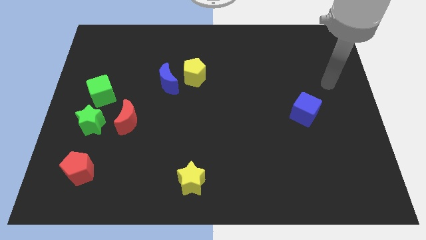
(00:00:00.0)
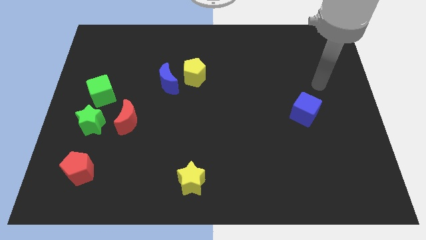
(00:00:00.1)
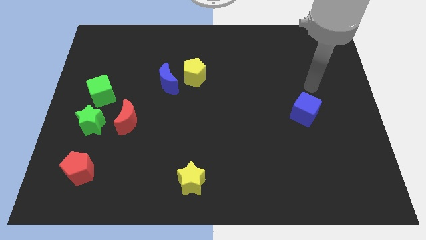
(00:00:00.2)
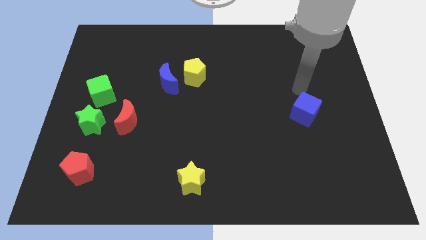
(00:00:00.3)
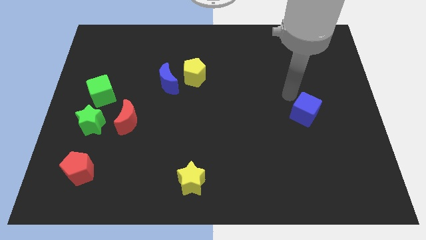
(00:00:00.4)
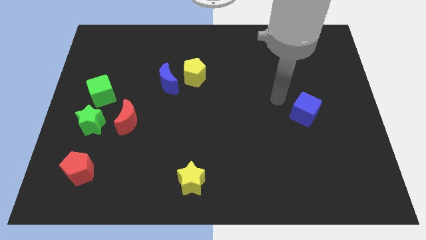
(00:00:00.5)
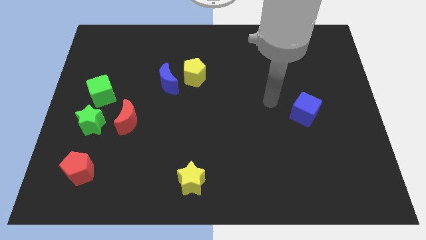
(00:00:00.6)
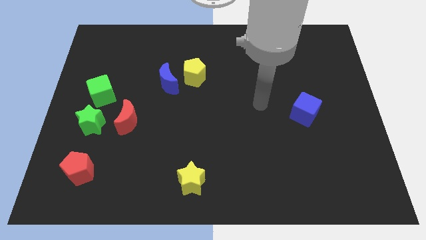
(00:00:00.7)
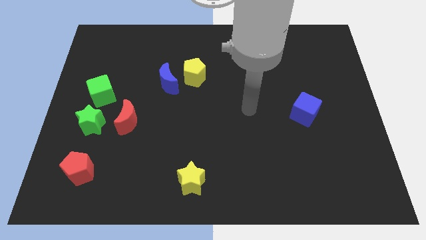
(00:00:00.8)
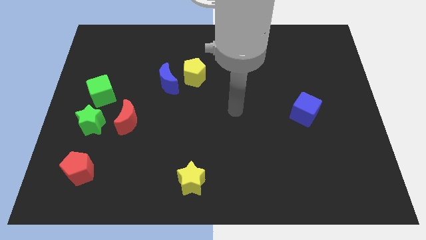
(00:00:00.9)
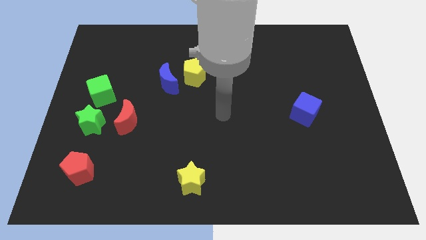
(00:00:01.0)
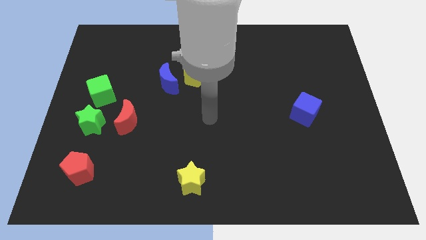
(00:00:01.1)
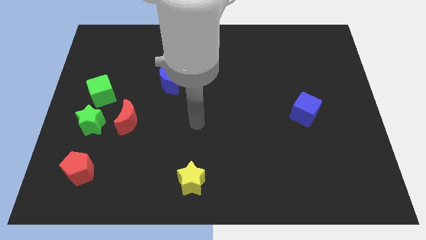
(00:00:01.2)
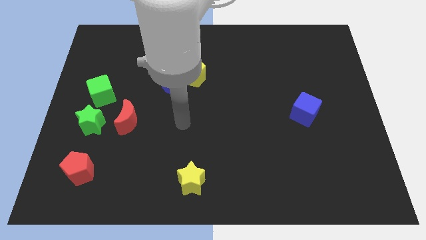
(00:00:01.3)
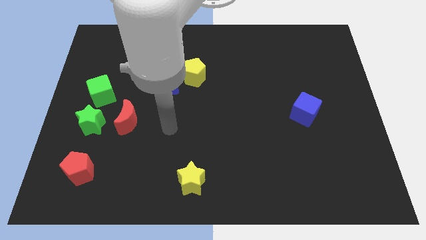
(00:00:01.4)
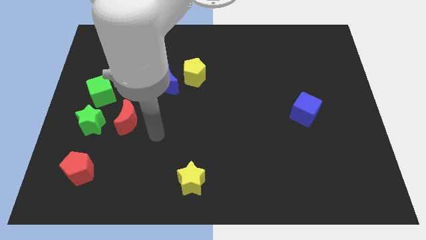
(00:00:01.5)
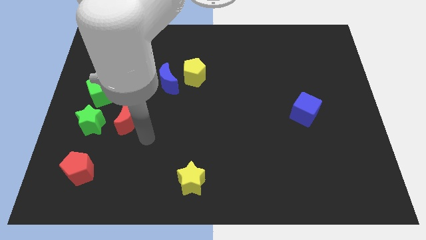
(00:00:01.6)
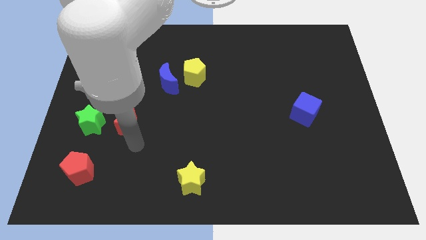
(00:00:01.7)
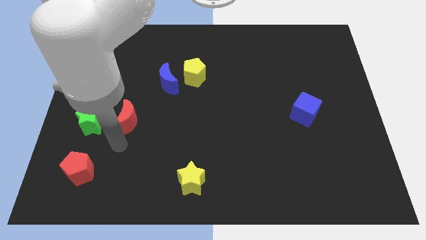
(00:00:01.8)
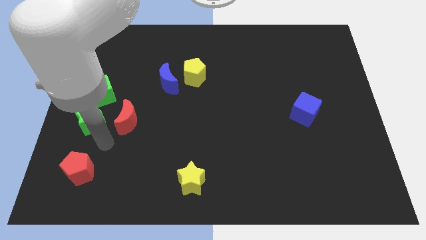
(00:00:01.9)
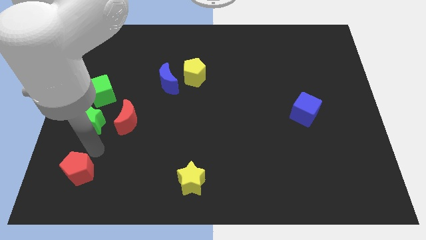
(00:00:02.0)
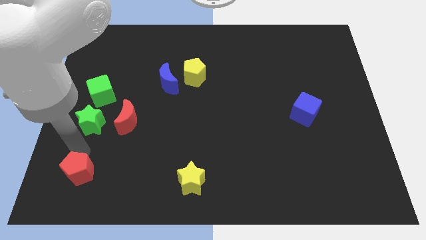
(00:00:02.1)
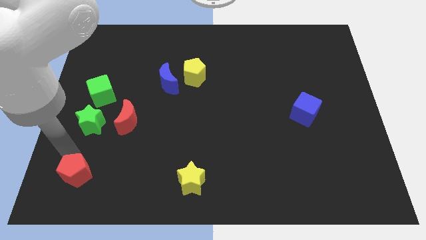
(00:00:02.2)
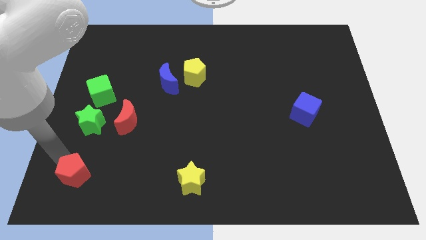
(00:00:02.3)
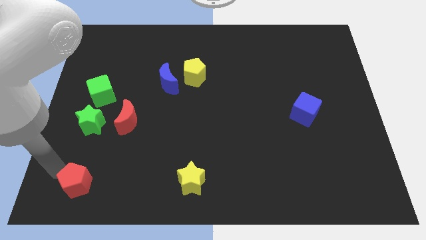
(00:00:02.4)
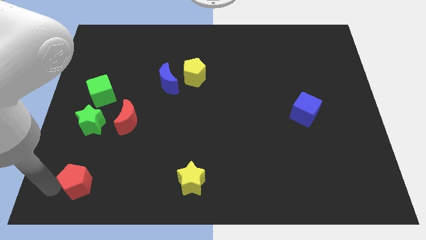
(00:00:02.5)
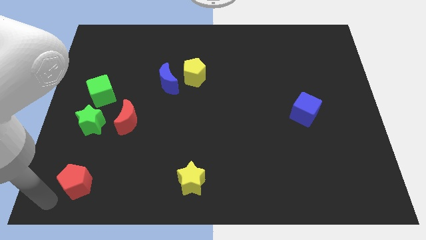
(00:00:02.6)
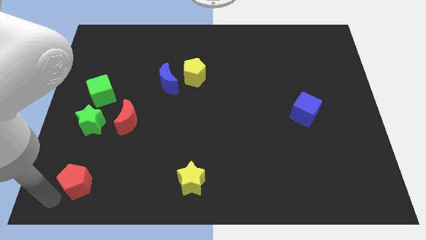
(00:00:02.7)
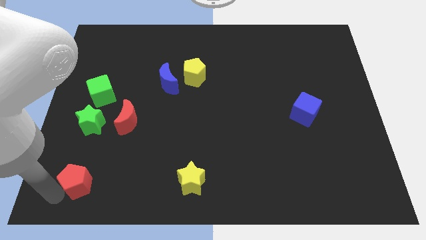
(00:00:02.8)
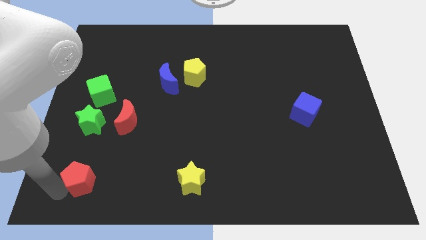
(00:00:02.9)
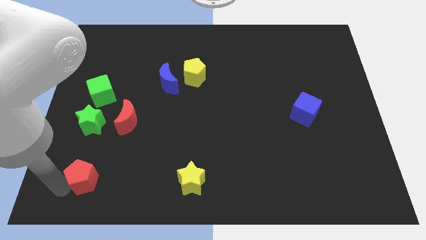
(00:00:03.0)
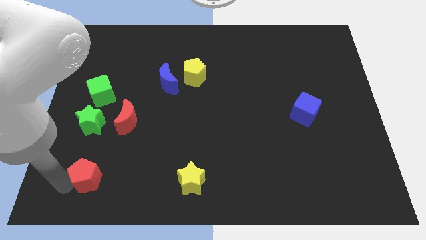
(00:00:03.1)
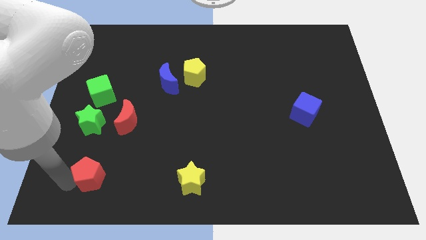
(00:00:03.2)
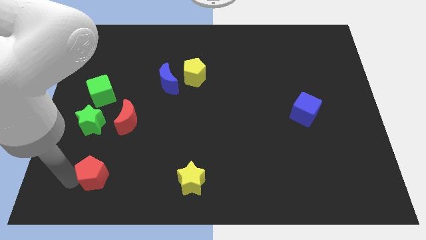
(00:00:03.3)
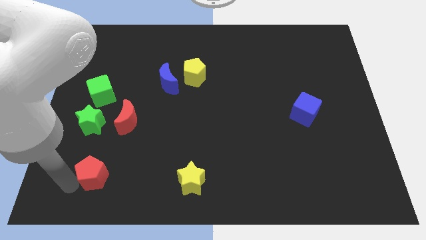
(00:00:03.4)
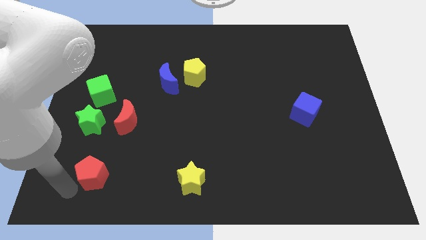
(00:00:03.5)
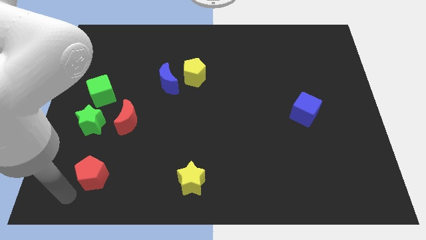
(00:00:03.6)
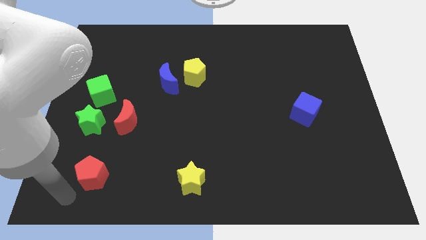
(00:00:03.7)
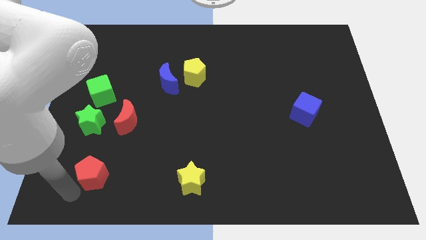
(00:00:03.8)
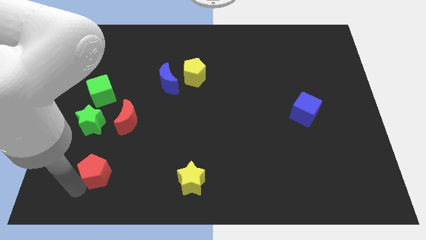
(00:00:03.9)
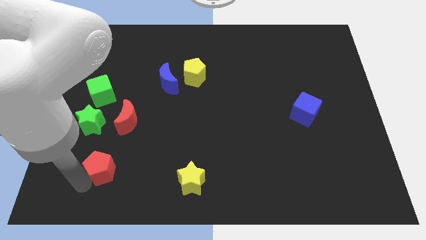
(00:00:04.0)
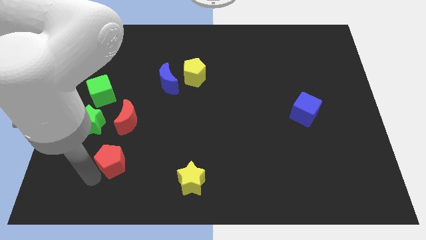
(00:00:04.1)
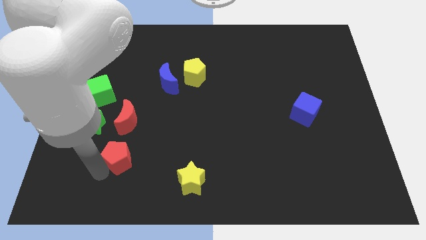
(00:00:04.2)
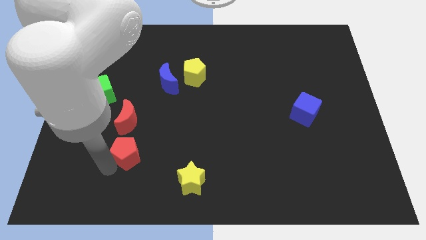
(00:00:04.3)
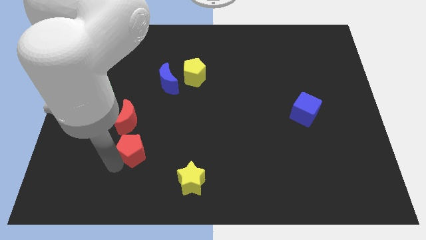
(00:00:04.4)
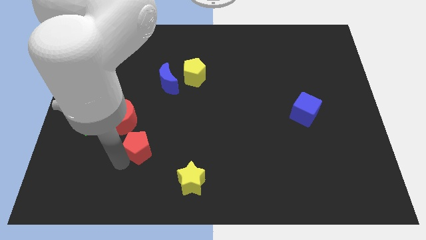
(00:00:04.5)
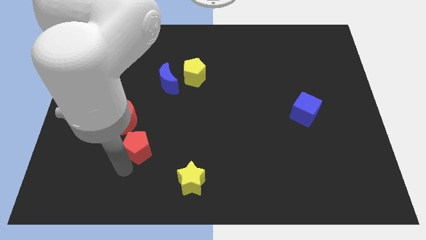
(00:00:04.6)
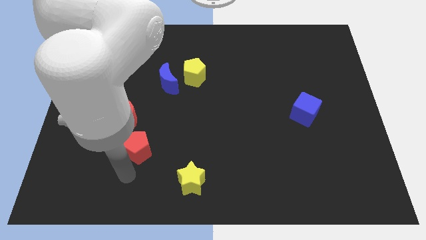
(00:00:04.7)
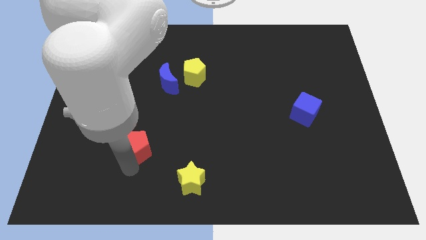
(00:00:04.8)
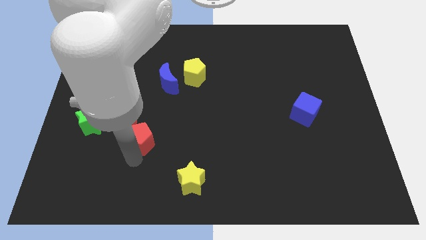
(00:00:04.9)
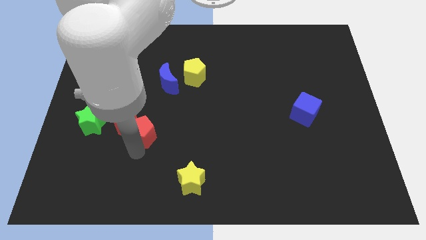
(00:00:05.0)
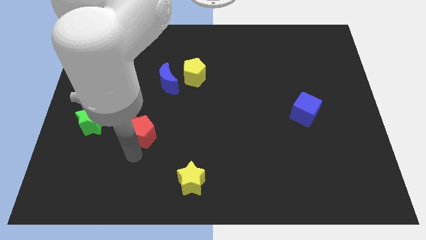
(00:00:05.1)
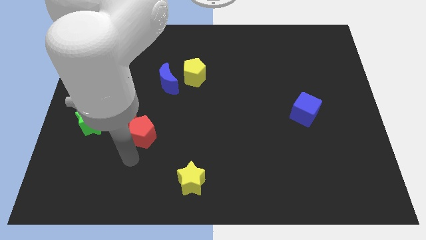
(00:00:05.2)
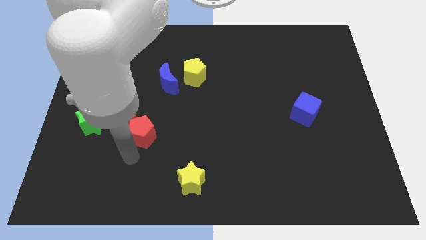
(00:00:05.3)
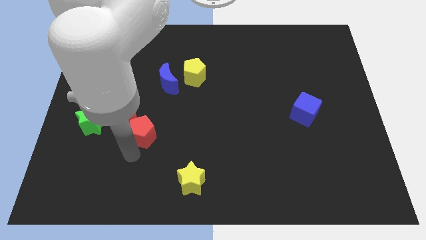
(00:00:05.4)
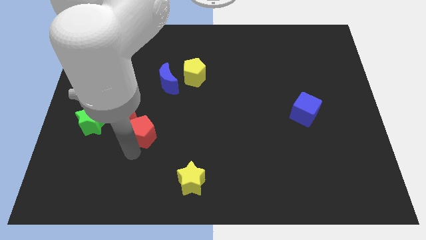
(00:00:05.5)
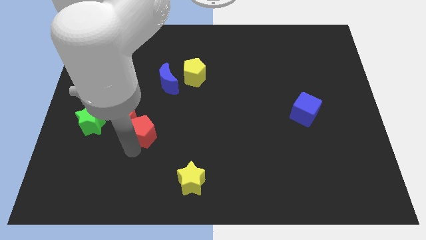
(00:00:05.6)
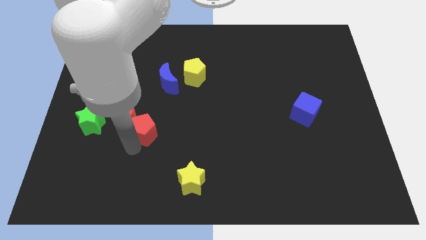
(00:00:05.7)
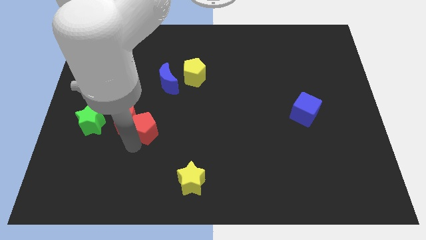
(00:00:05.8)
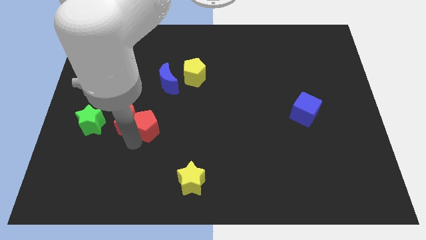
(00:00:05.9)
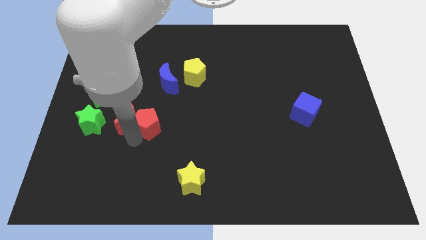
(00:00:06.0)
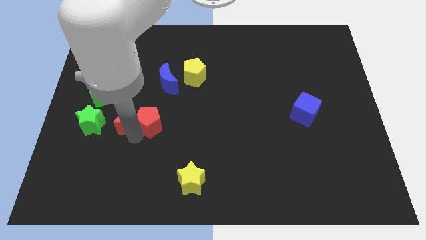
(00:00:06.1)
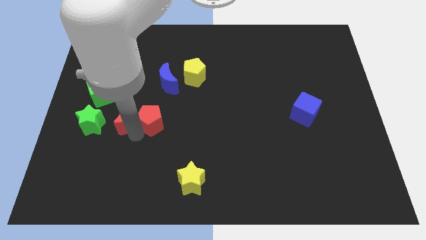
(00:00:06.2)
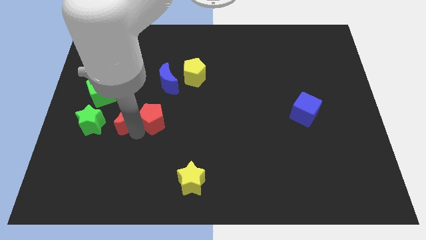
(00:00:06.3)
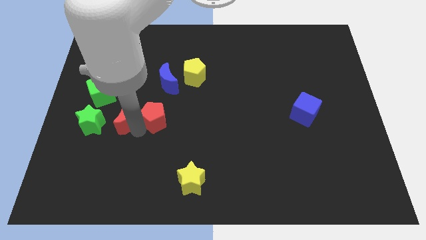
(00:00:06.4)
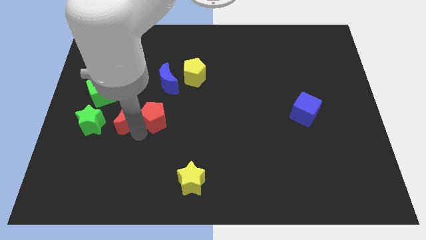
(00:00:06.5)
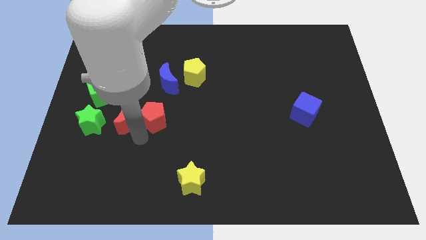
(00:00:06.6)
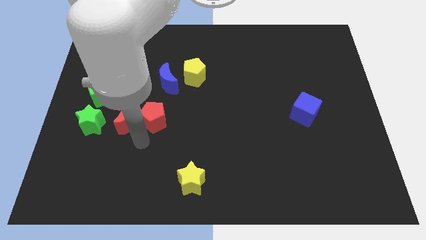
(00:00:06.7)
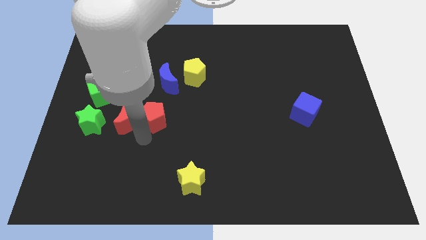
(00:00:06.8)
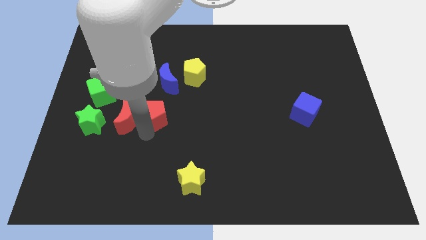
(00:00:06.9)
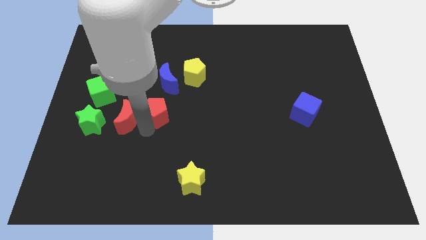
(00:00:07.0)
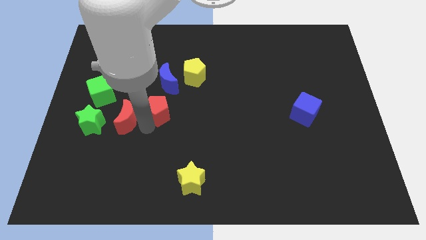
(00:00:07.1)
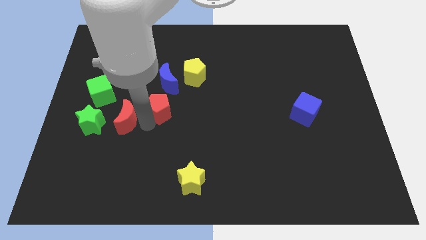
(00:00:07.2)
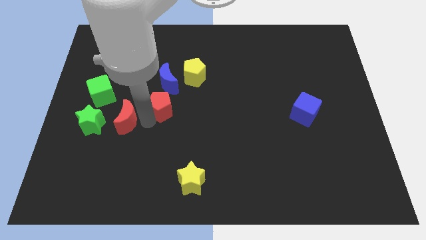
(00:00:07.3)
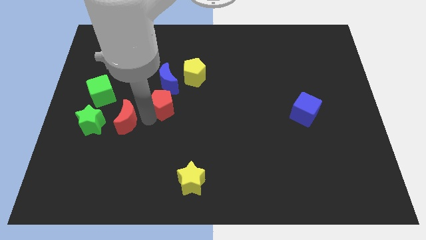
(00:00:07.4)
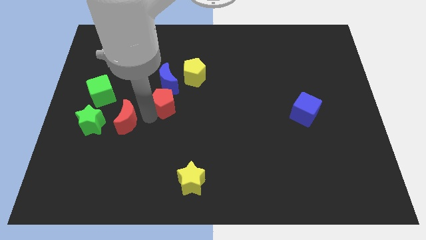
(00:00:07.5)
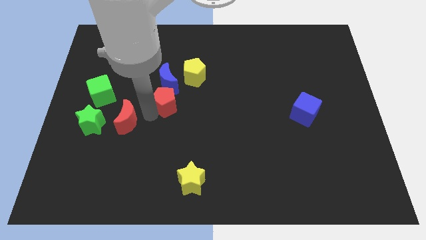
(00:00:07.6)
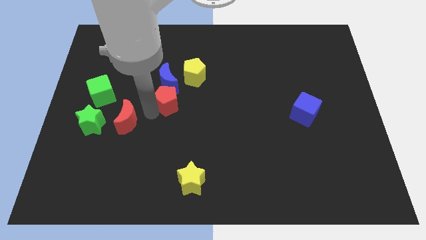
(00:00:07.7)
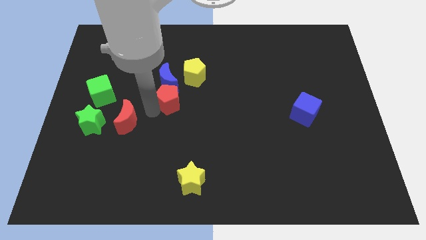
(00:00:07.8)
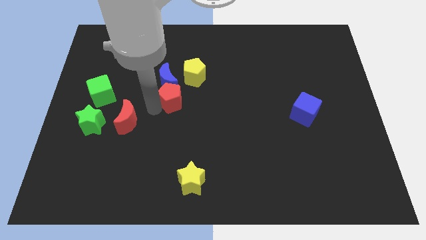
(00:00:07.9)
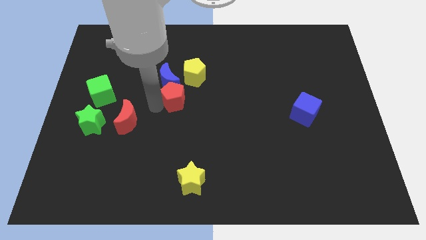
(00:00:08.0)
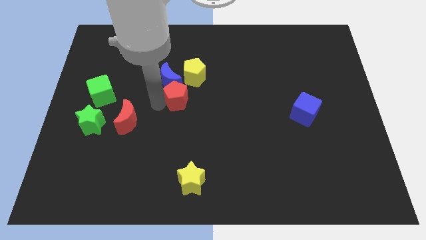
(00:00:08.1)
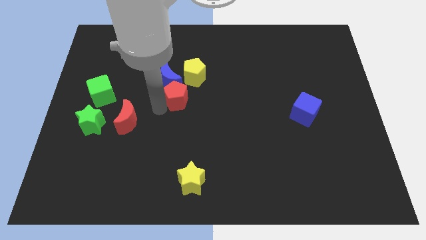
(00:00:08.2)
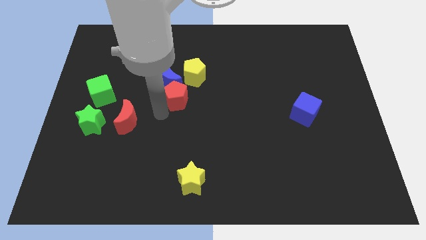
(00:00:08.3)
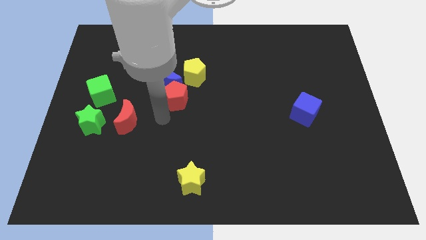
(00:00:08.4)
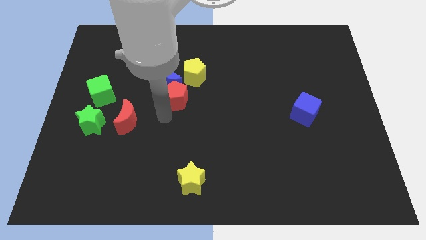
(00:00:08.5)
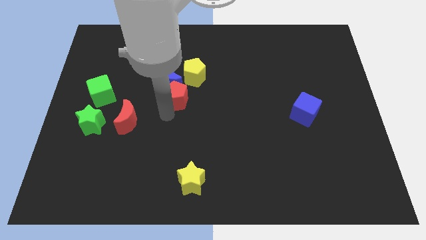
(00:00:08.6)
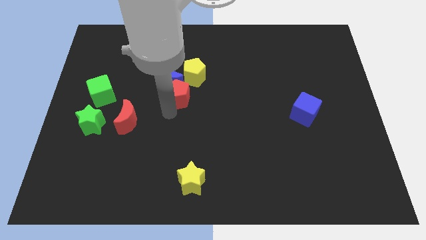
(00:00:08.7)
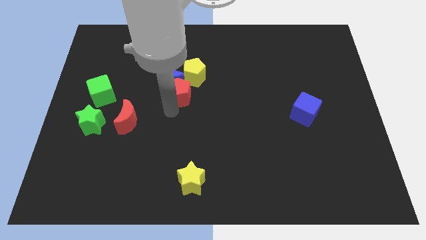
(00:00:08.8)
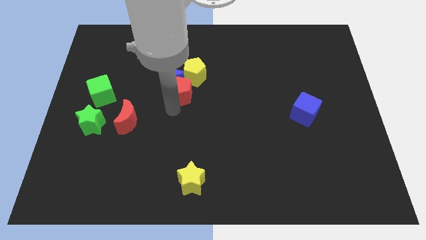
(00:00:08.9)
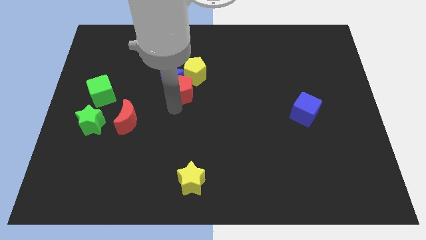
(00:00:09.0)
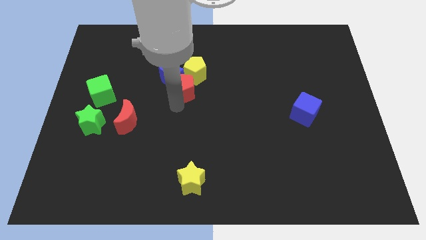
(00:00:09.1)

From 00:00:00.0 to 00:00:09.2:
slide the red pentagon to the yellow pentagon
